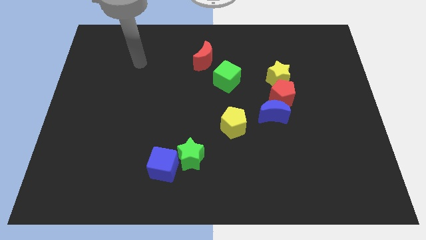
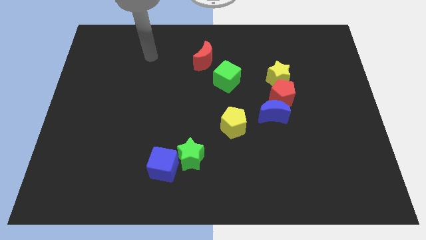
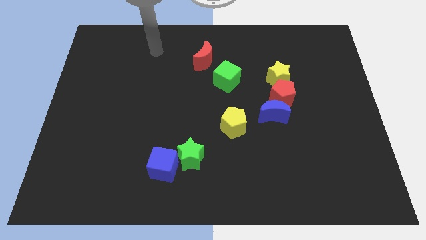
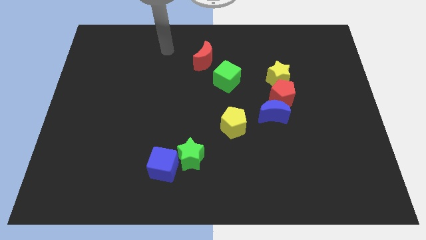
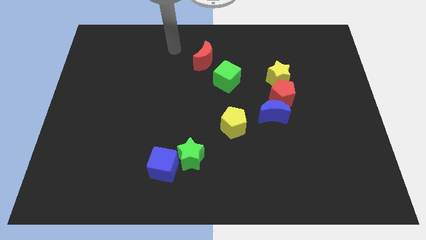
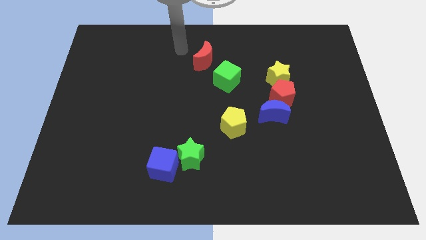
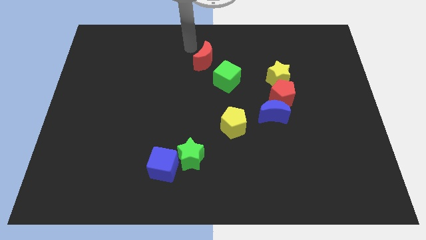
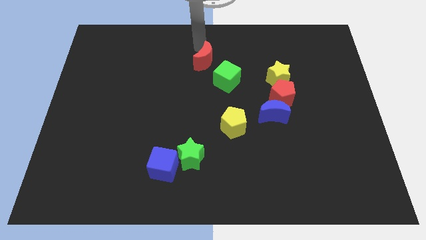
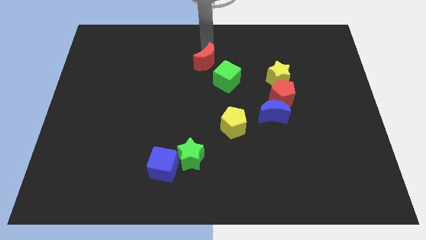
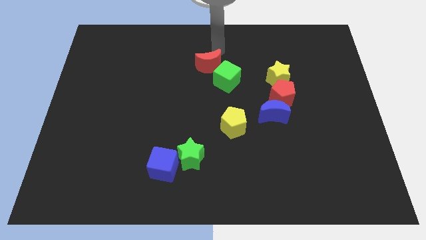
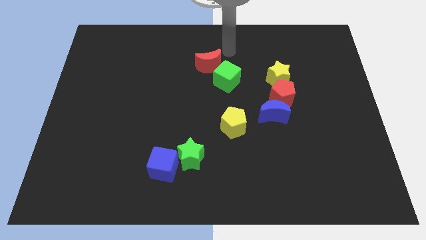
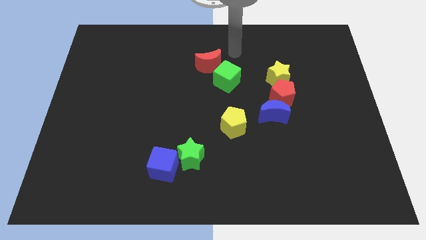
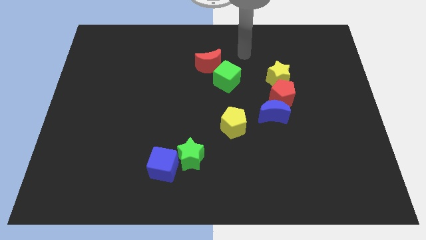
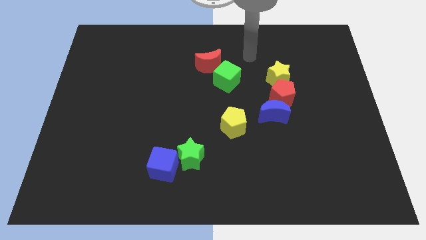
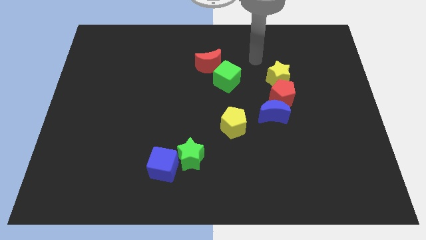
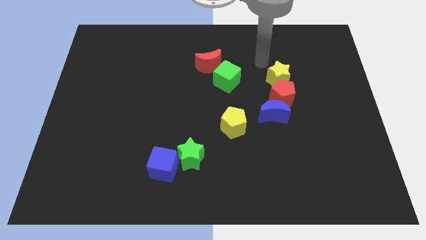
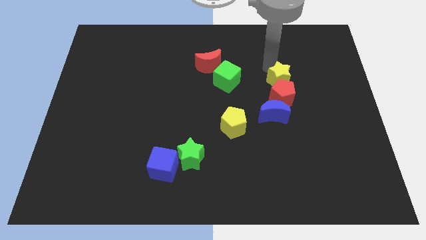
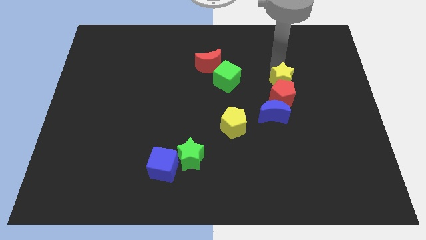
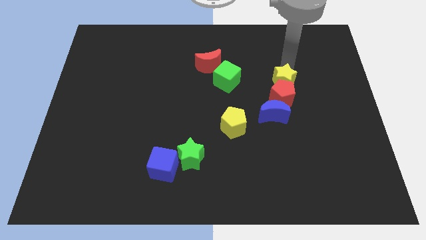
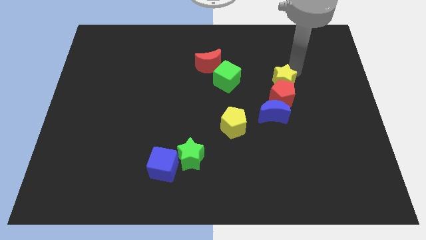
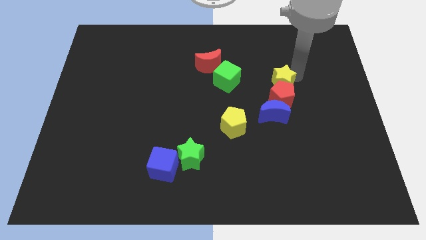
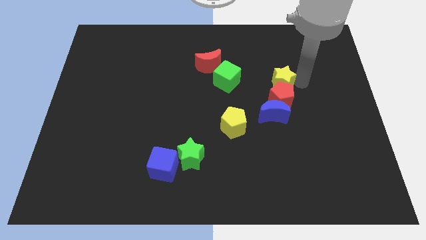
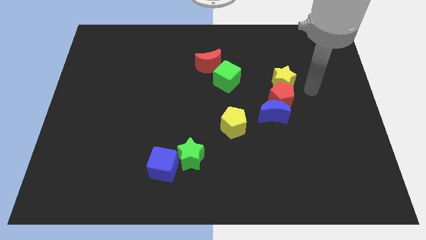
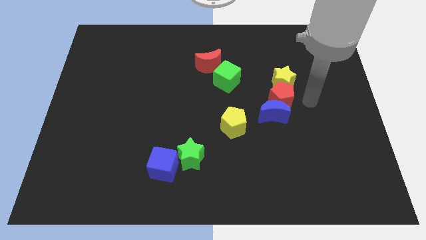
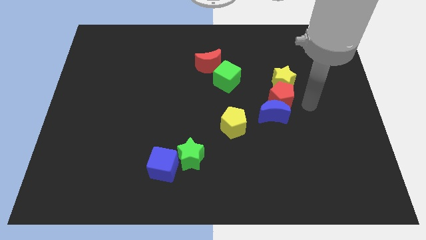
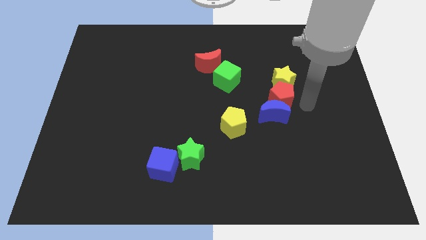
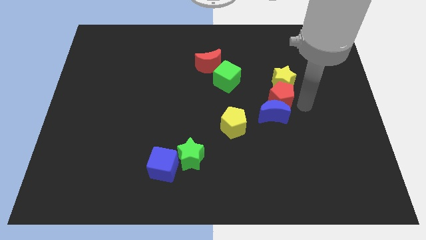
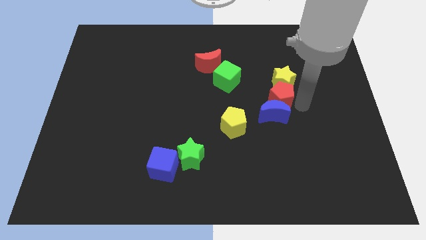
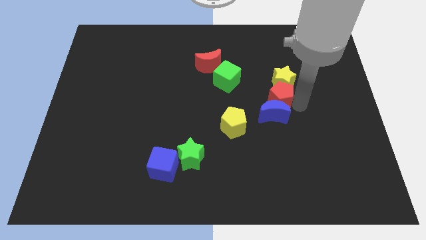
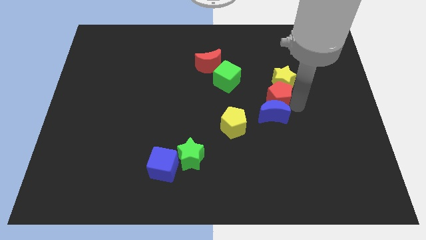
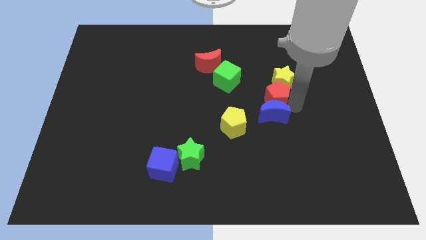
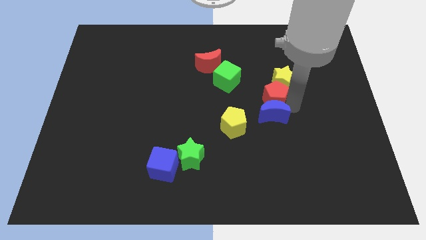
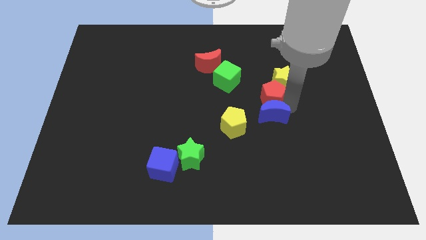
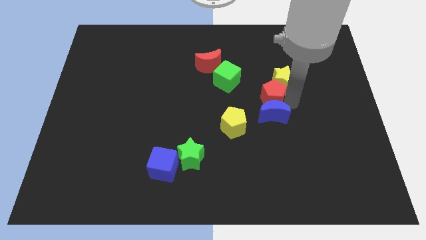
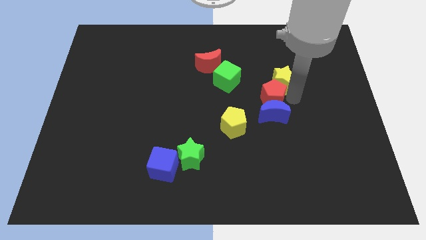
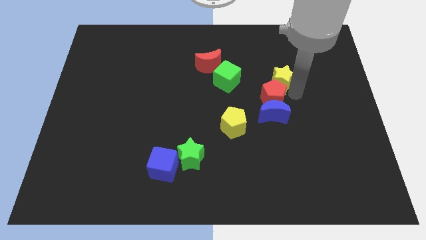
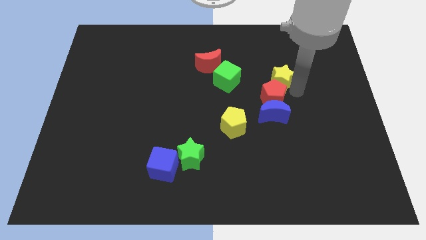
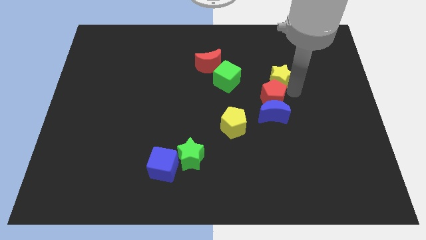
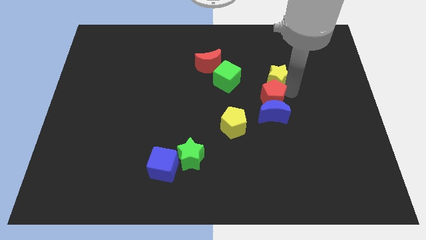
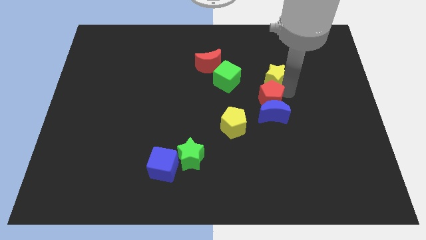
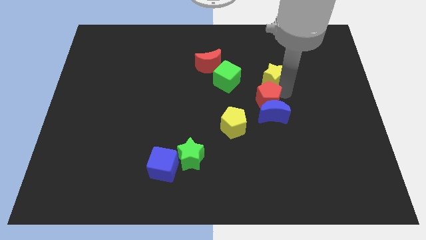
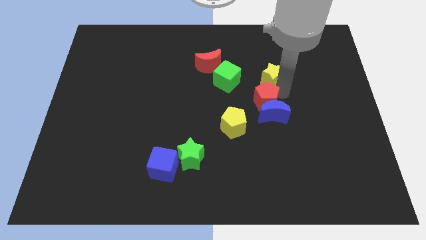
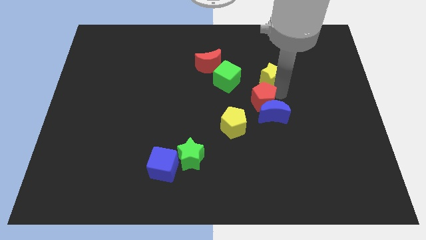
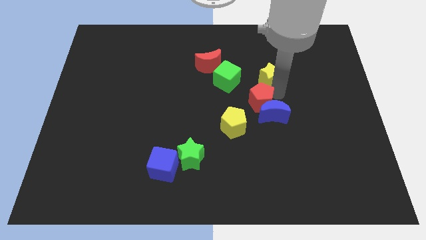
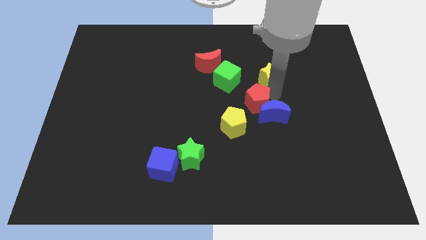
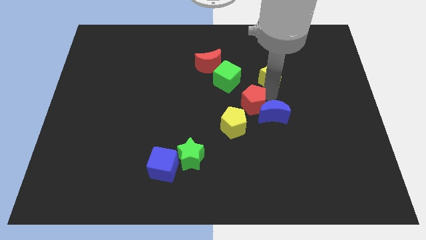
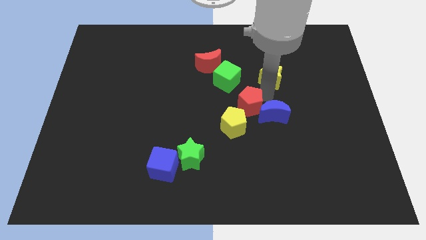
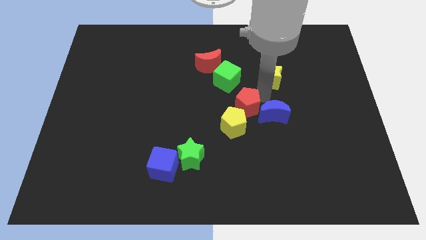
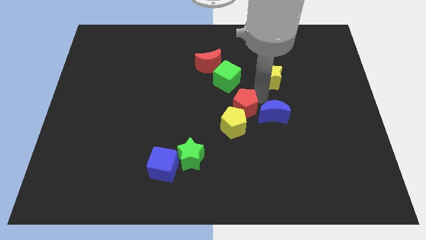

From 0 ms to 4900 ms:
put the red pentagon towards the yellow pentagon

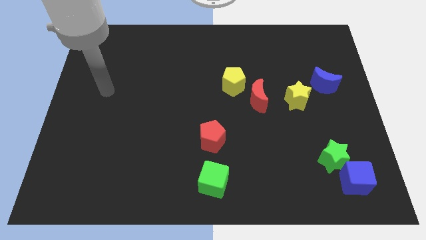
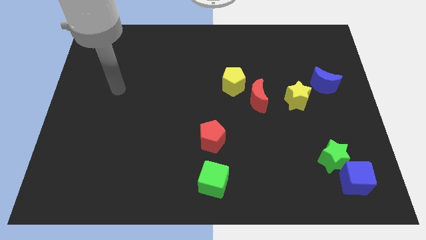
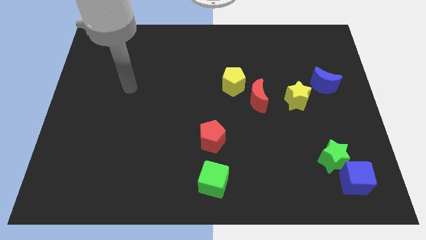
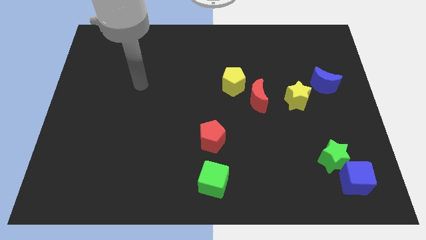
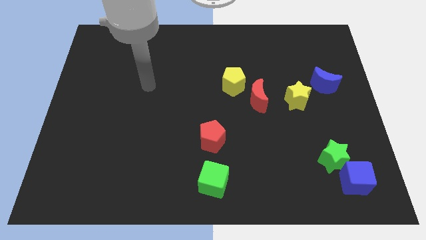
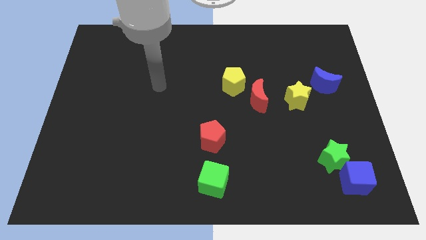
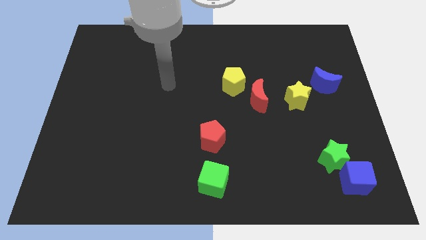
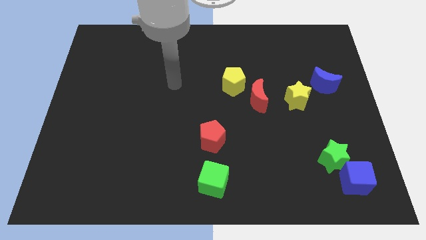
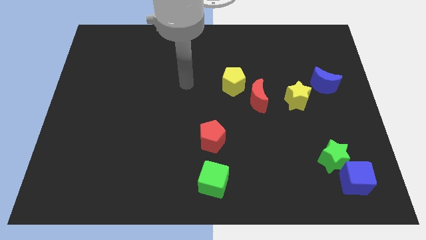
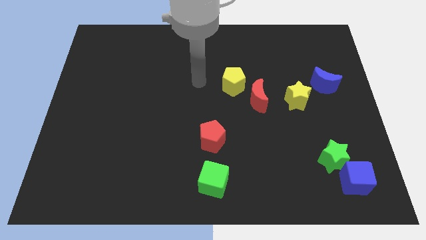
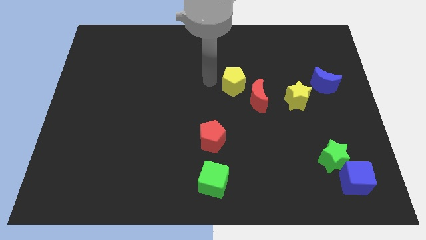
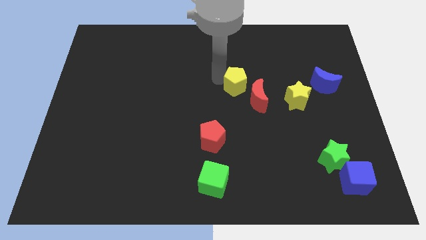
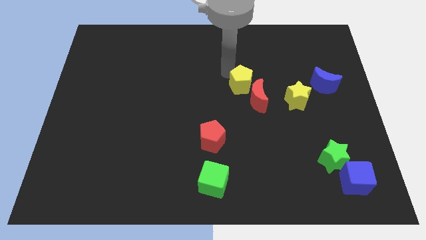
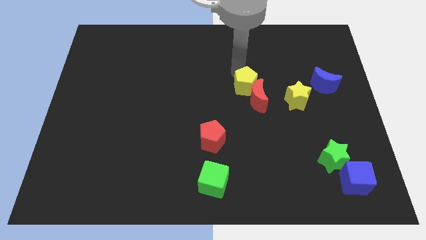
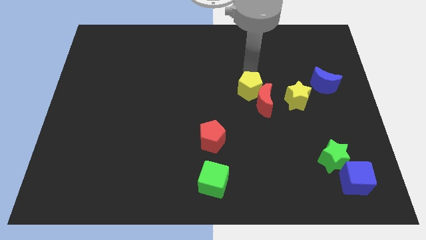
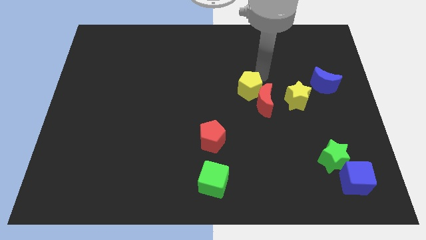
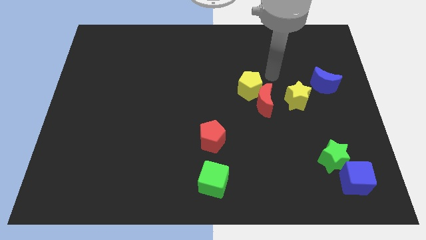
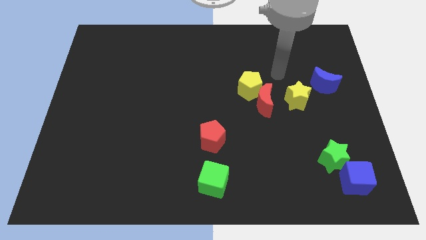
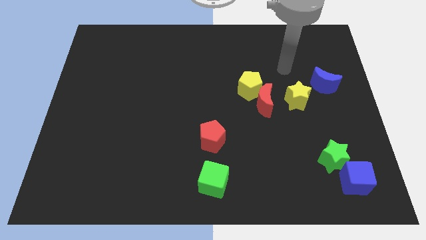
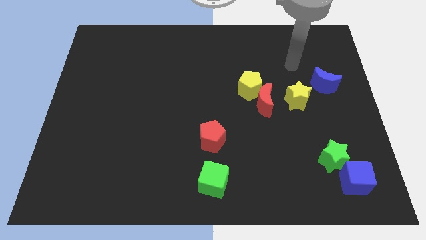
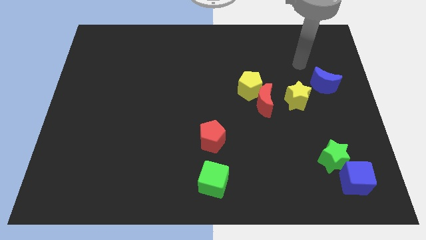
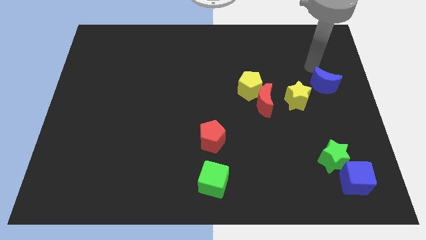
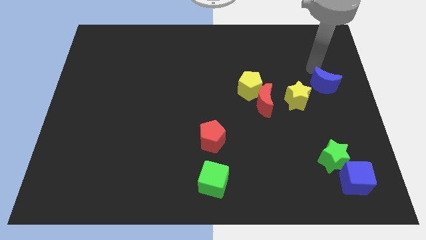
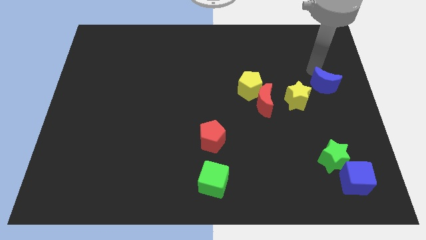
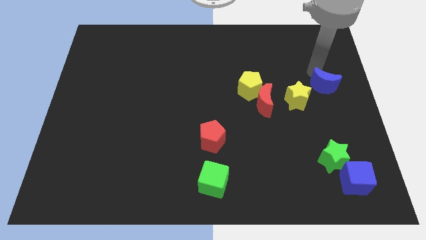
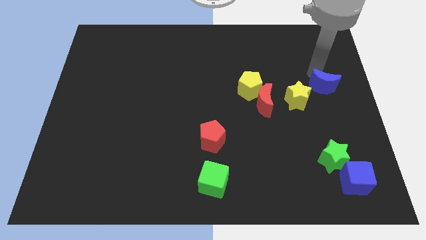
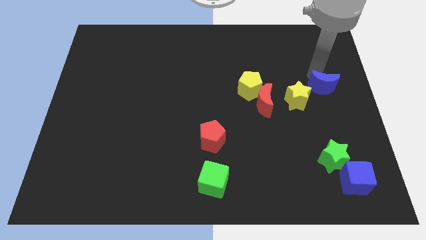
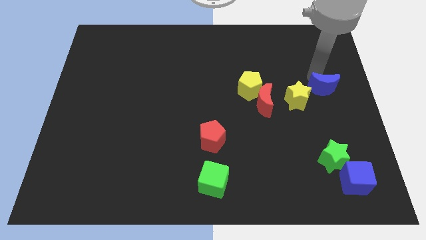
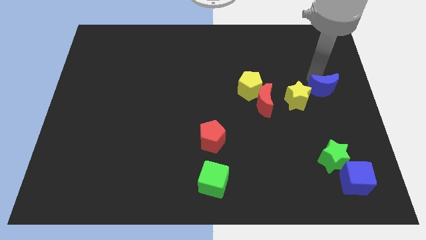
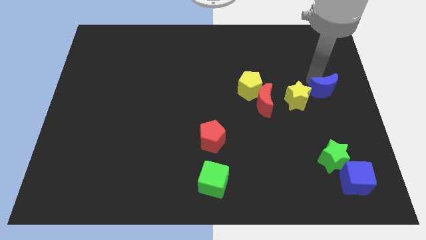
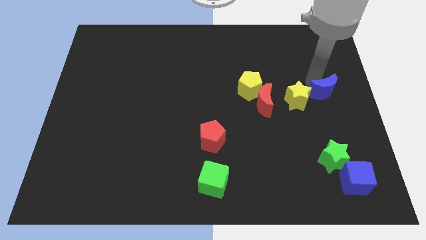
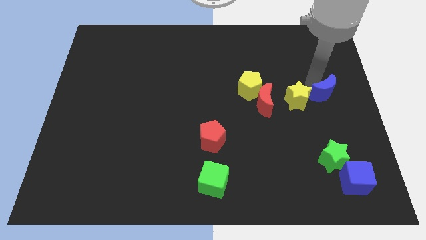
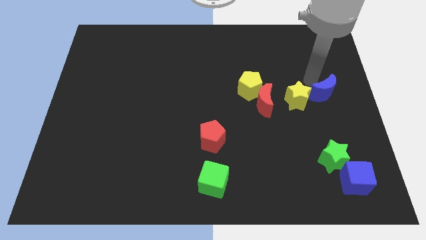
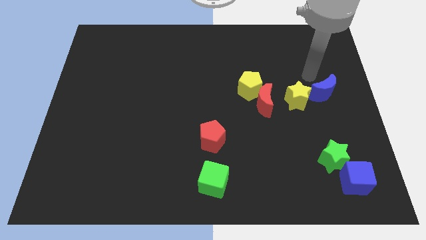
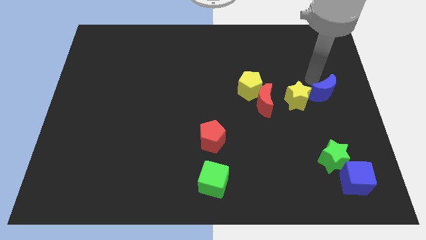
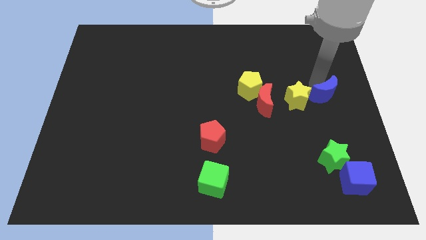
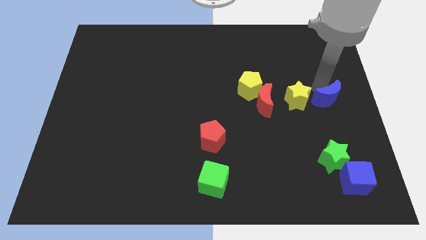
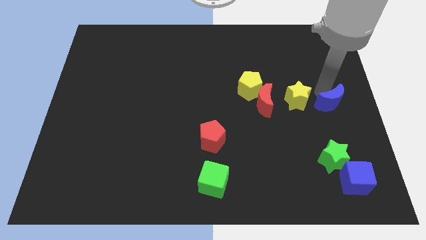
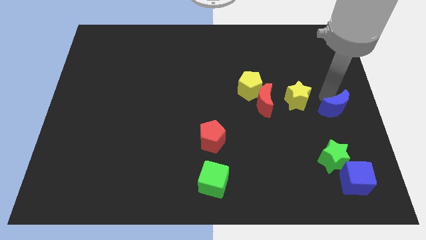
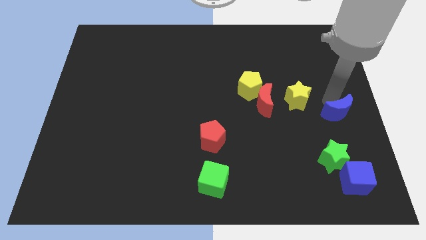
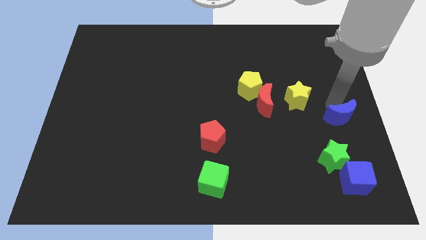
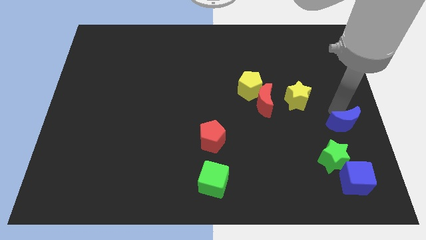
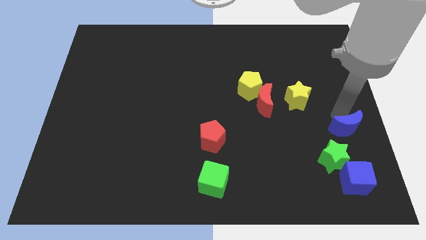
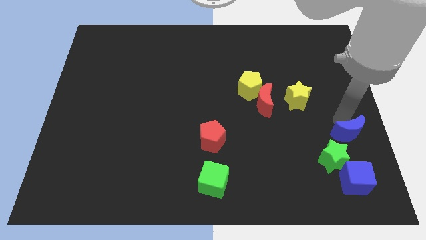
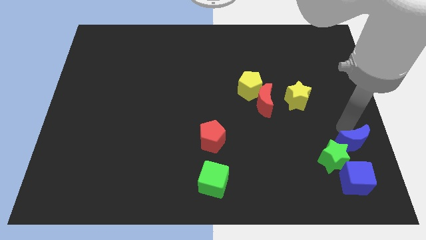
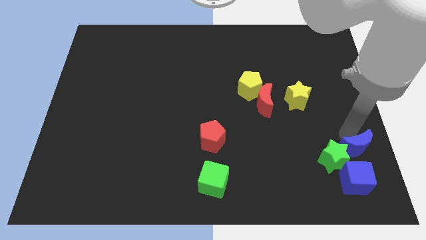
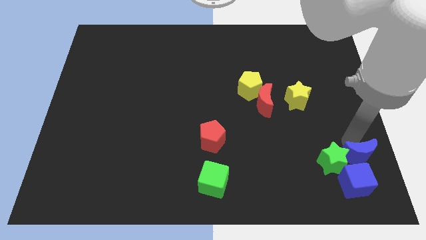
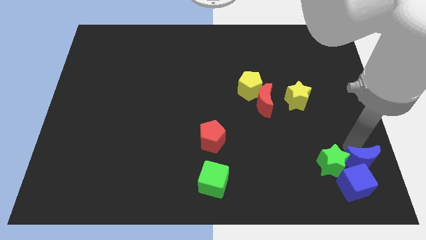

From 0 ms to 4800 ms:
move the blue moon close to the blue cube
